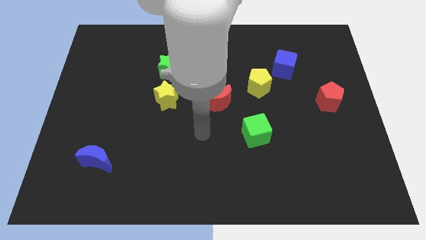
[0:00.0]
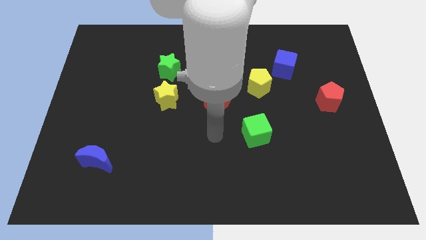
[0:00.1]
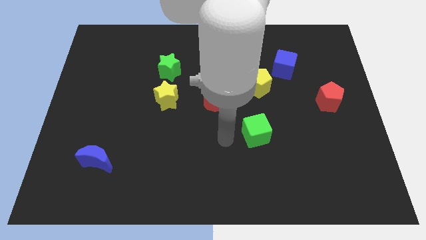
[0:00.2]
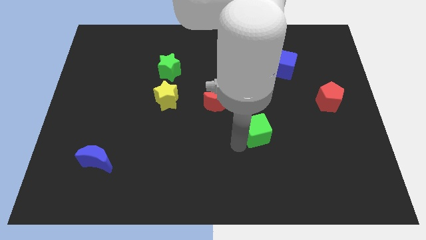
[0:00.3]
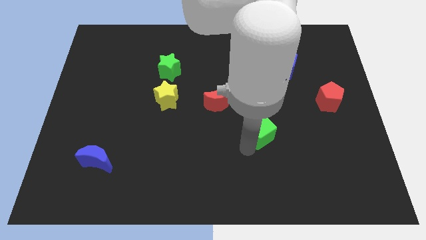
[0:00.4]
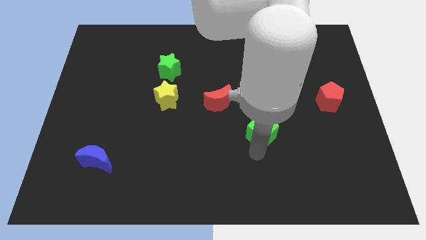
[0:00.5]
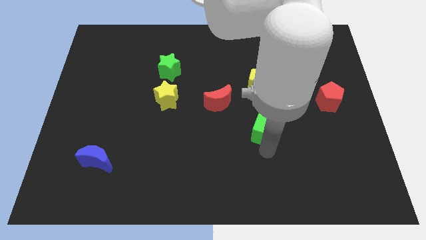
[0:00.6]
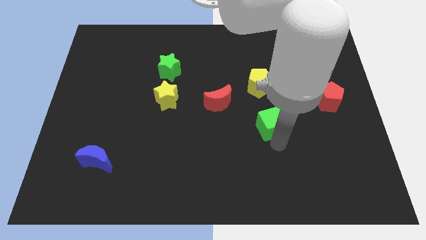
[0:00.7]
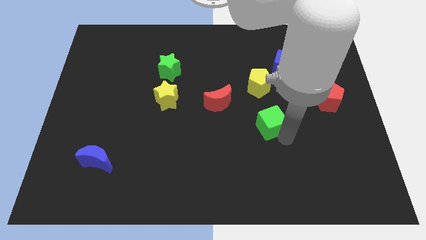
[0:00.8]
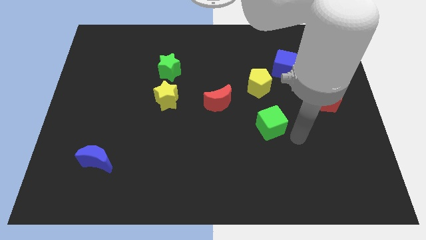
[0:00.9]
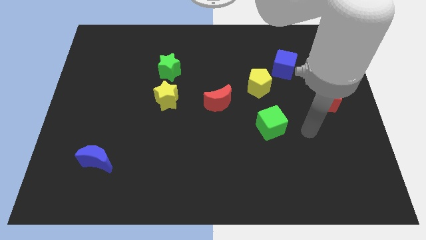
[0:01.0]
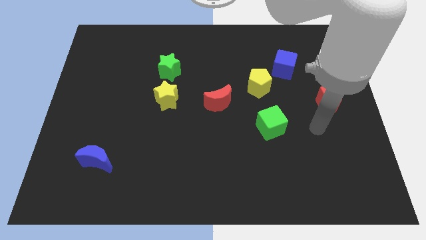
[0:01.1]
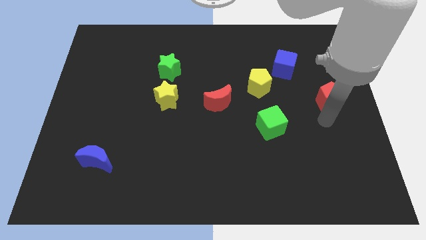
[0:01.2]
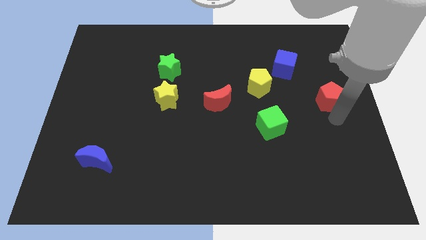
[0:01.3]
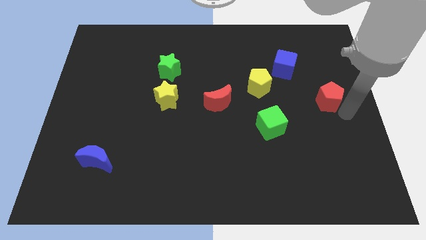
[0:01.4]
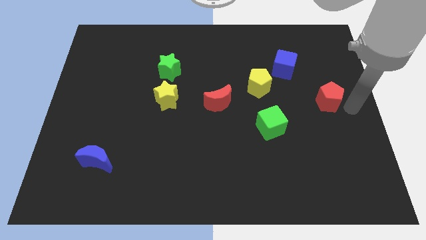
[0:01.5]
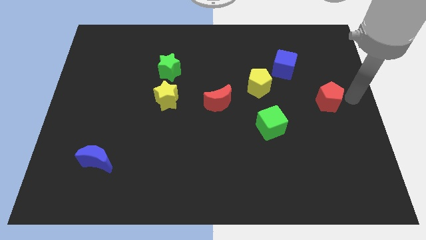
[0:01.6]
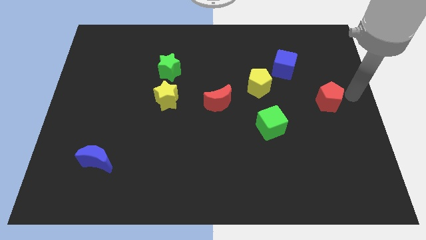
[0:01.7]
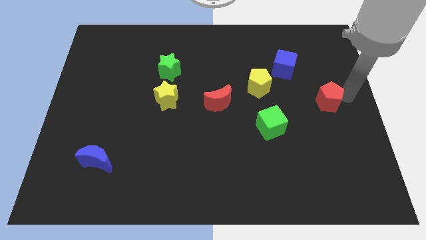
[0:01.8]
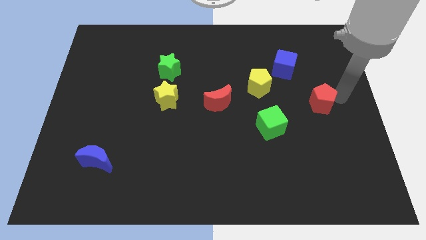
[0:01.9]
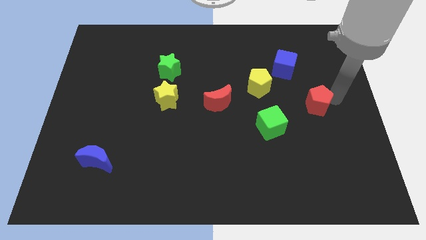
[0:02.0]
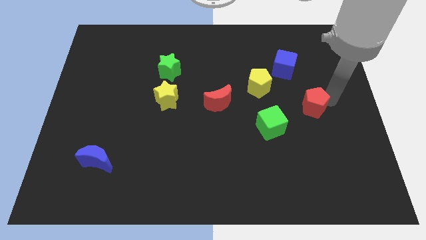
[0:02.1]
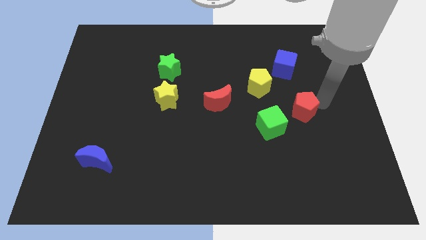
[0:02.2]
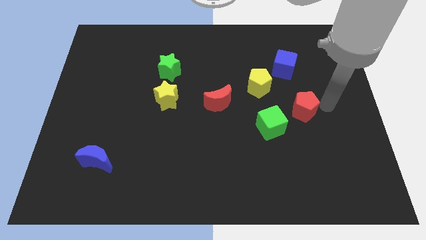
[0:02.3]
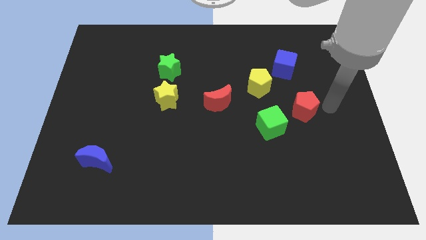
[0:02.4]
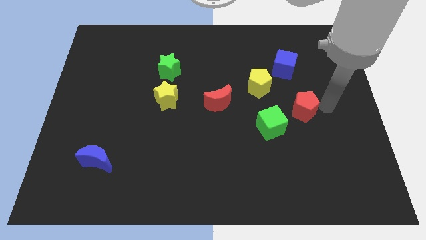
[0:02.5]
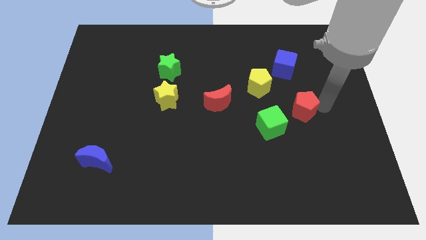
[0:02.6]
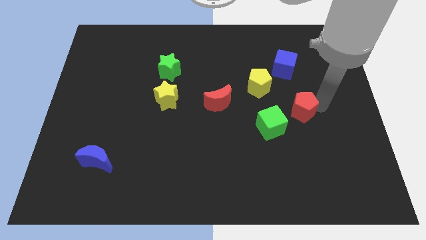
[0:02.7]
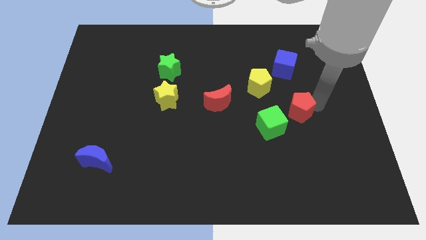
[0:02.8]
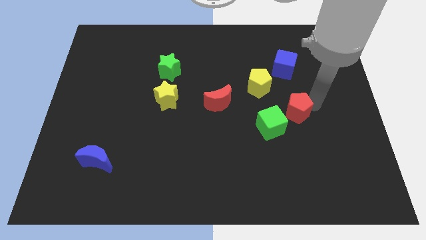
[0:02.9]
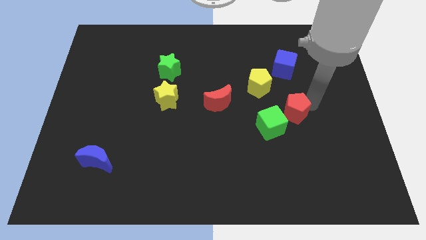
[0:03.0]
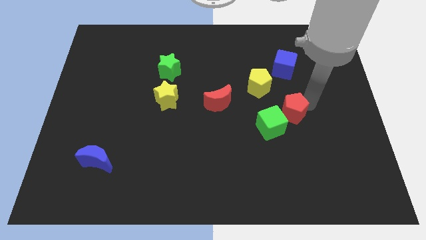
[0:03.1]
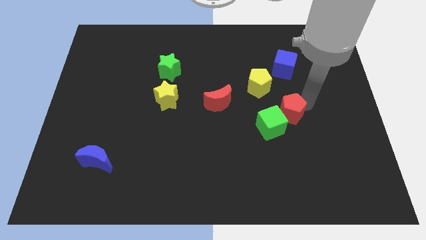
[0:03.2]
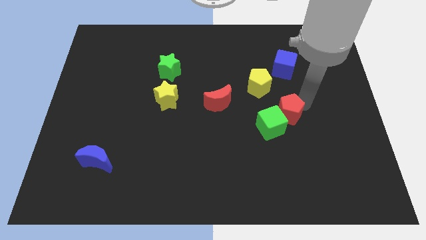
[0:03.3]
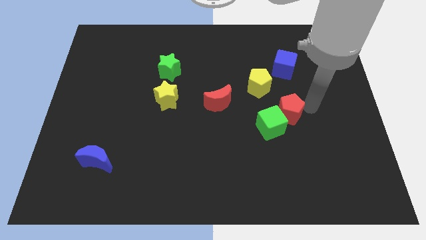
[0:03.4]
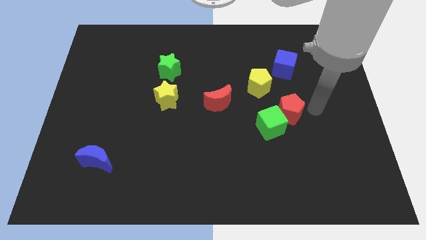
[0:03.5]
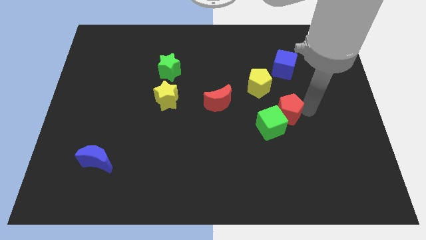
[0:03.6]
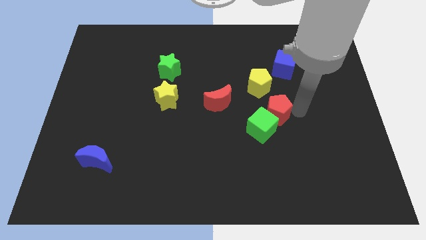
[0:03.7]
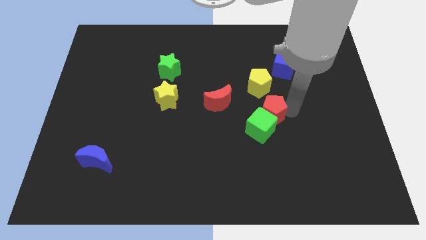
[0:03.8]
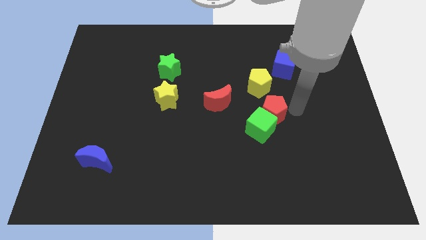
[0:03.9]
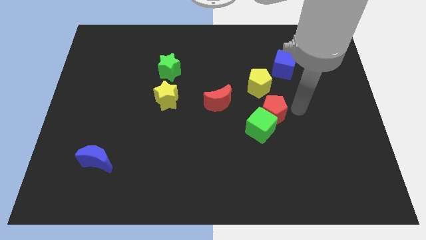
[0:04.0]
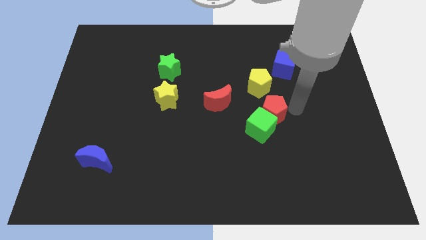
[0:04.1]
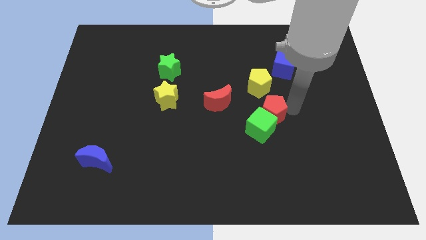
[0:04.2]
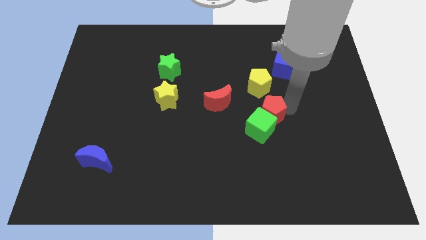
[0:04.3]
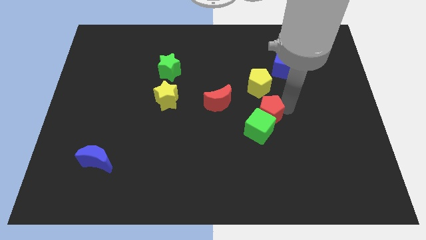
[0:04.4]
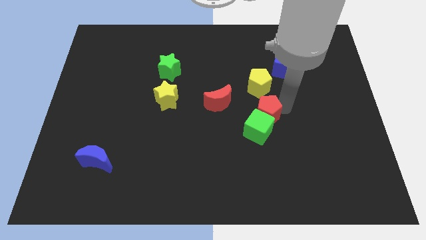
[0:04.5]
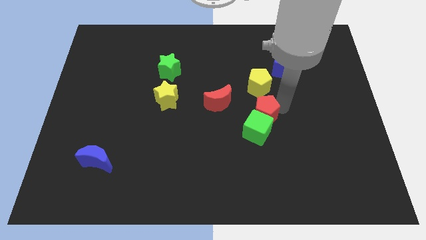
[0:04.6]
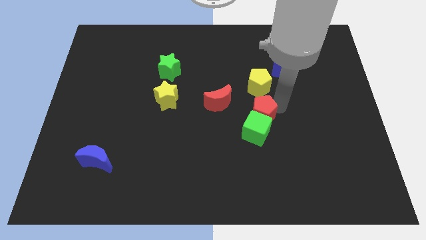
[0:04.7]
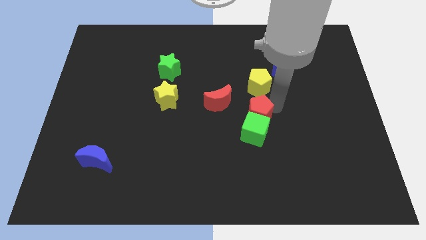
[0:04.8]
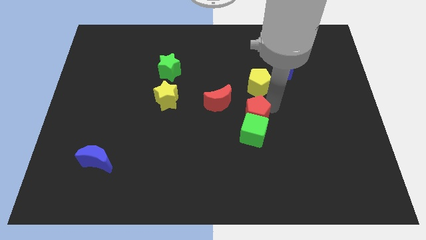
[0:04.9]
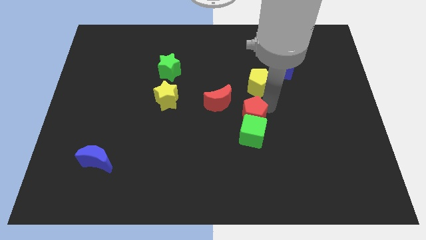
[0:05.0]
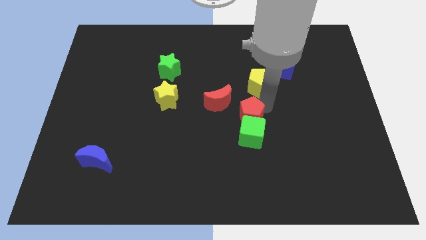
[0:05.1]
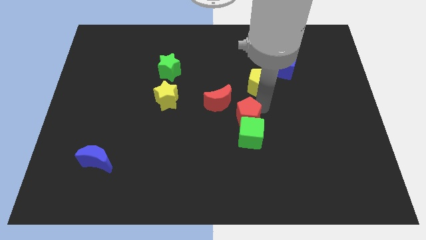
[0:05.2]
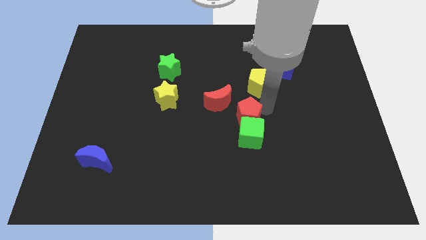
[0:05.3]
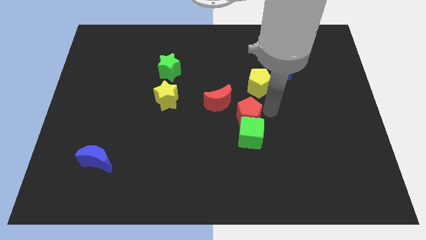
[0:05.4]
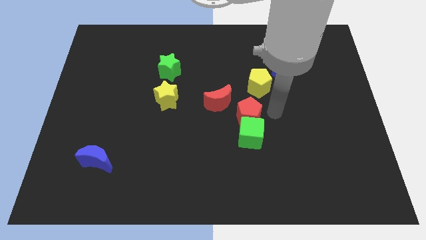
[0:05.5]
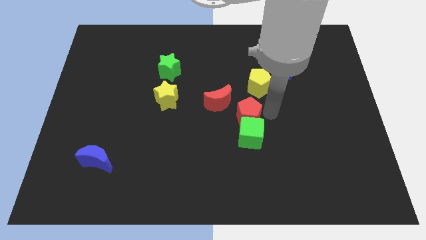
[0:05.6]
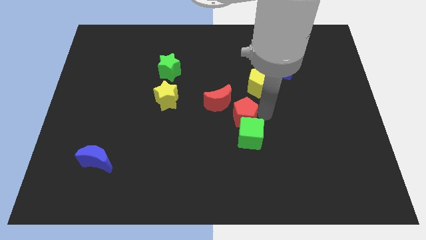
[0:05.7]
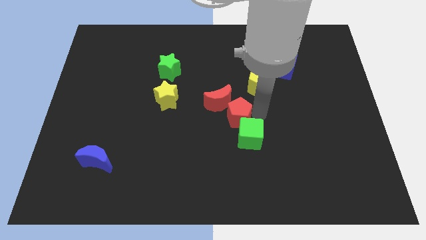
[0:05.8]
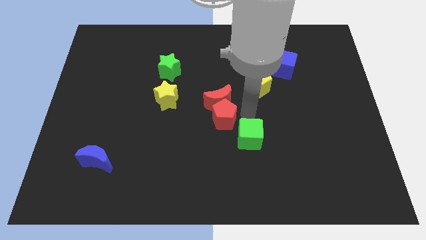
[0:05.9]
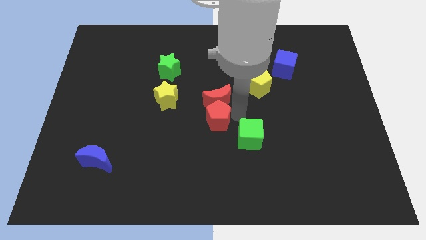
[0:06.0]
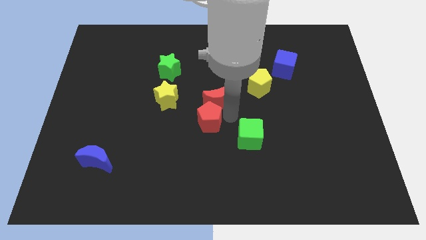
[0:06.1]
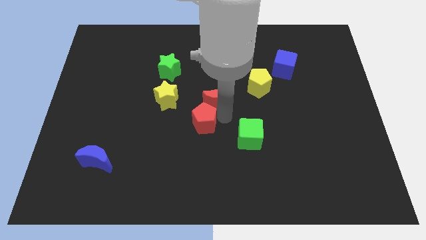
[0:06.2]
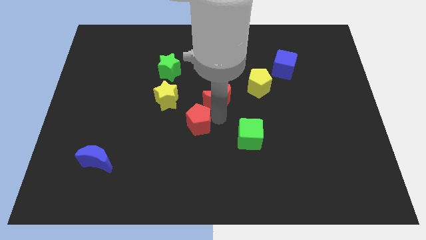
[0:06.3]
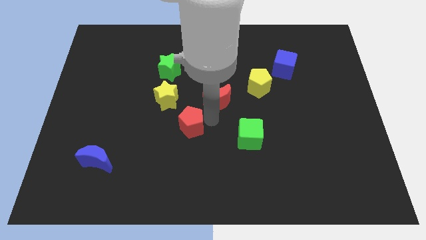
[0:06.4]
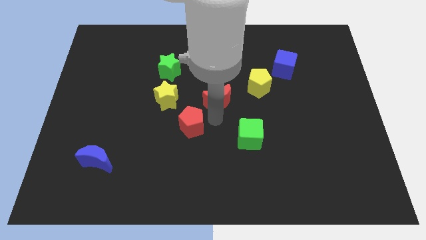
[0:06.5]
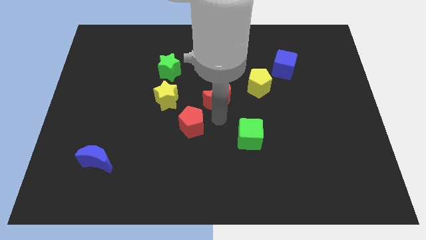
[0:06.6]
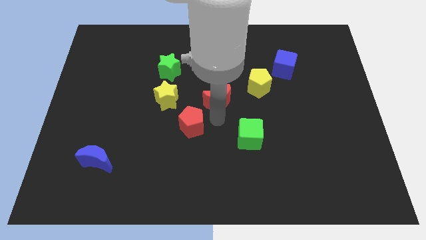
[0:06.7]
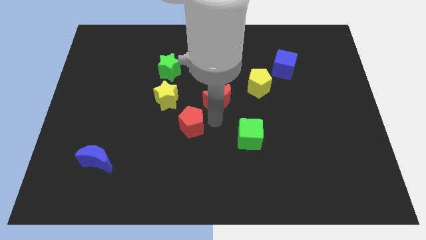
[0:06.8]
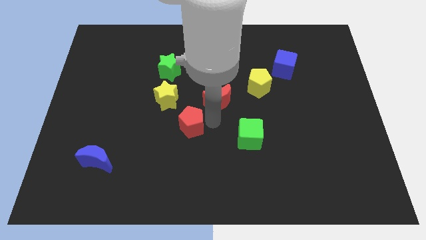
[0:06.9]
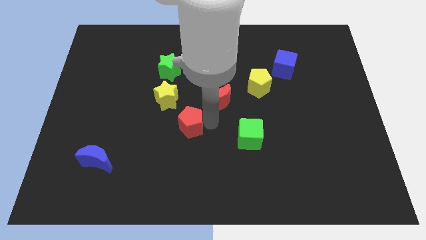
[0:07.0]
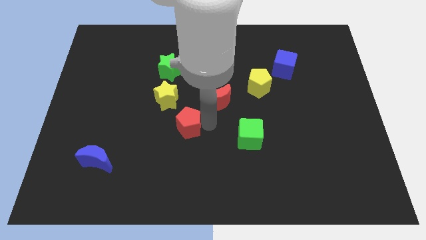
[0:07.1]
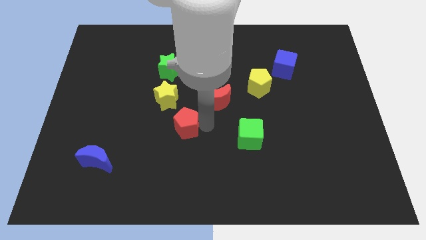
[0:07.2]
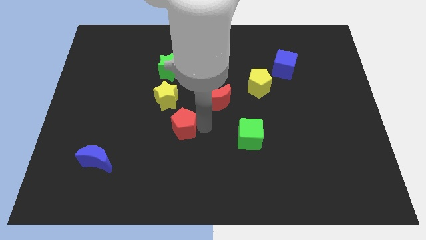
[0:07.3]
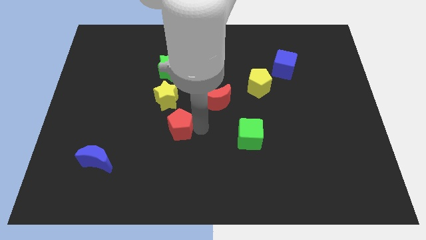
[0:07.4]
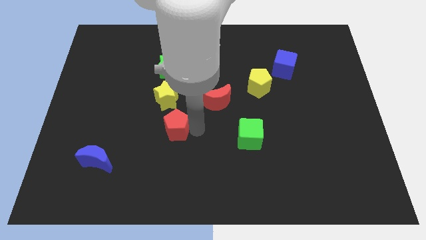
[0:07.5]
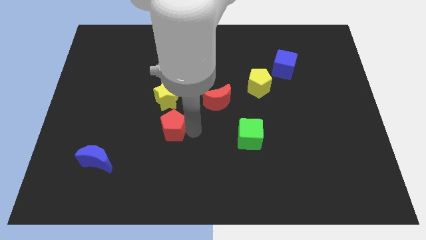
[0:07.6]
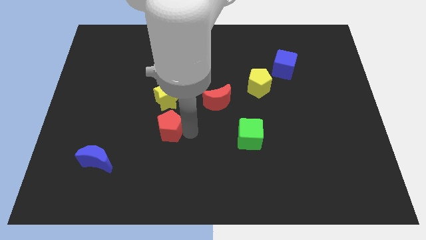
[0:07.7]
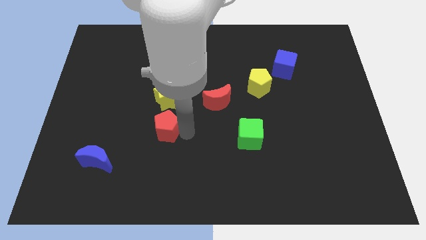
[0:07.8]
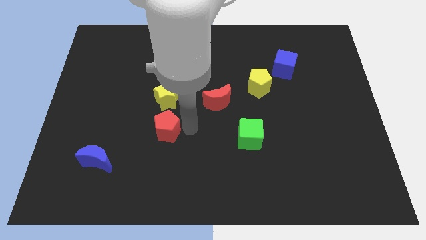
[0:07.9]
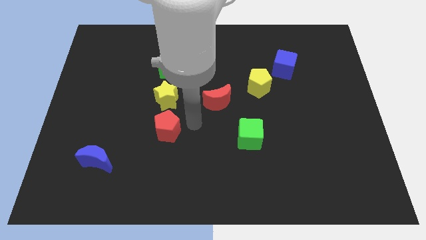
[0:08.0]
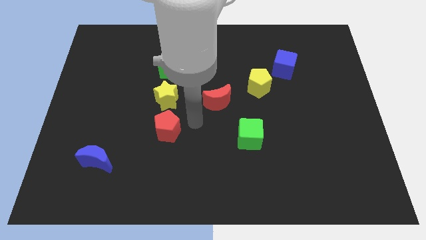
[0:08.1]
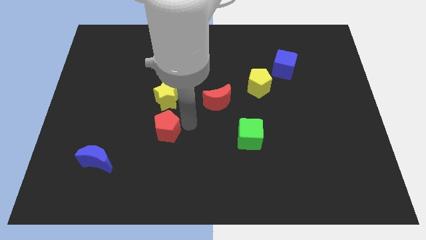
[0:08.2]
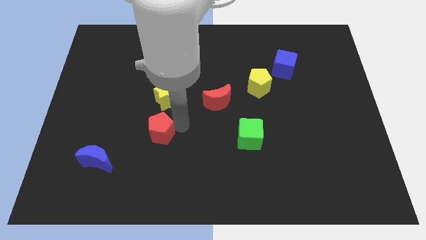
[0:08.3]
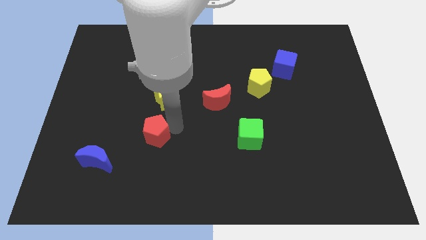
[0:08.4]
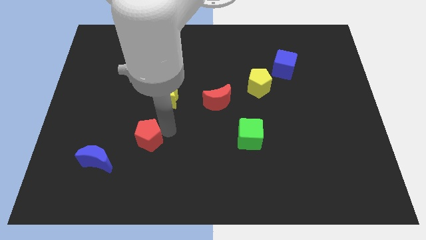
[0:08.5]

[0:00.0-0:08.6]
put the red pentagon to the top right side of the blue moon
